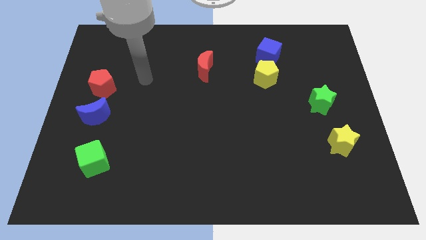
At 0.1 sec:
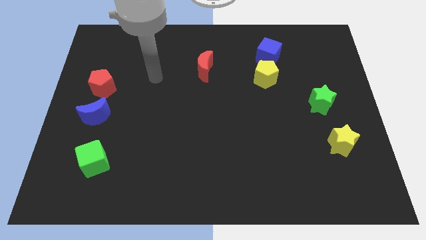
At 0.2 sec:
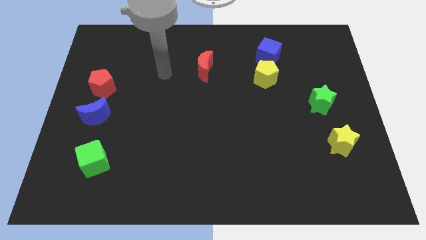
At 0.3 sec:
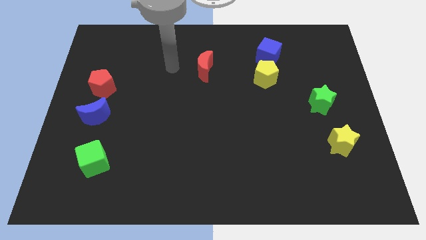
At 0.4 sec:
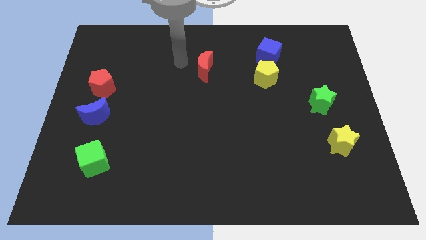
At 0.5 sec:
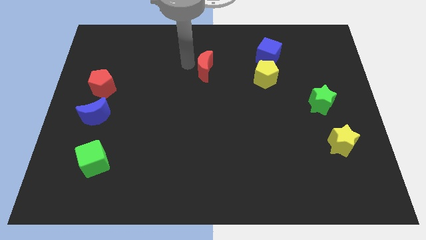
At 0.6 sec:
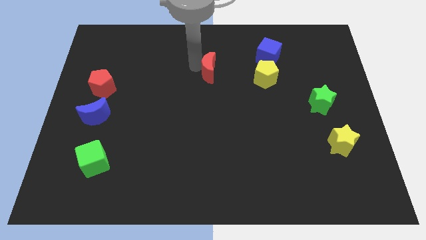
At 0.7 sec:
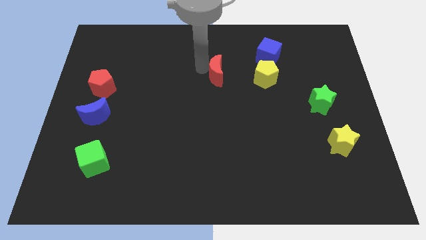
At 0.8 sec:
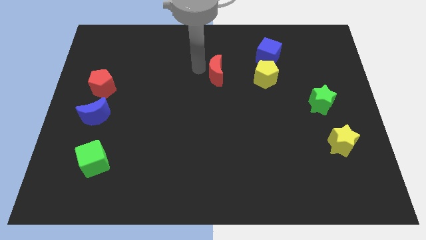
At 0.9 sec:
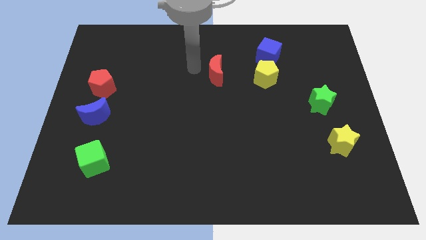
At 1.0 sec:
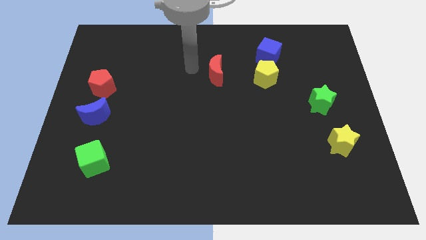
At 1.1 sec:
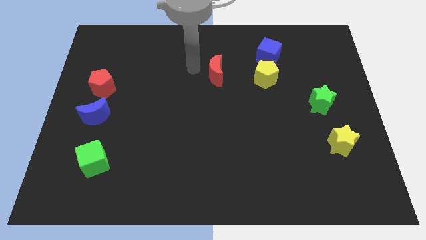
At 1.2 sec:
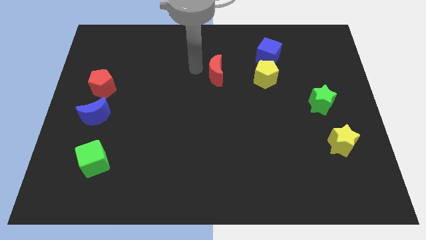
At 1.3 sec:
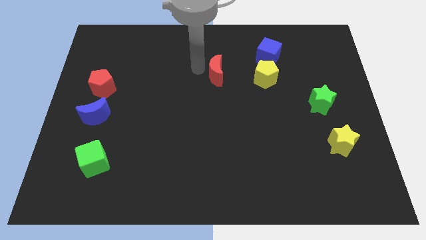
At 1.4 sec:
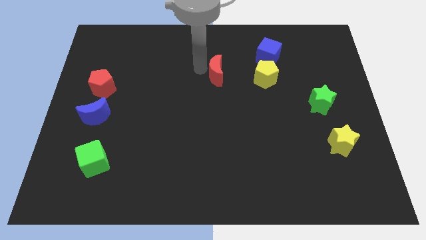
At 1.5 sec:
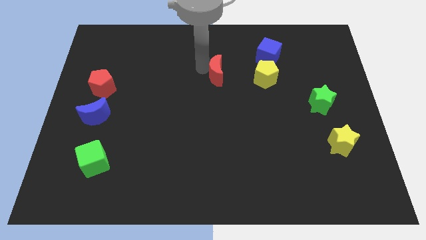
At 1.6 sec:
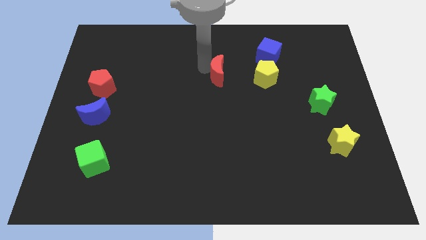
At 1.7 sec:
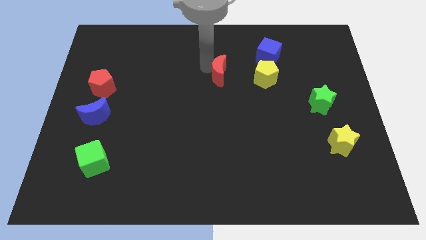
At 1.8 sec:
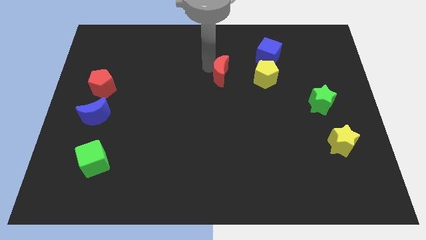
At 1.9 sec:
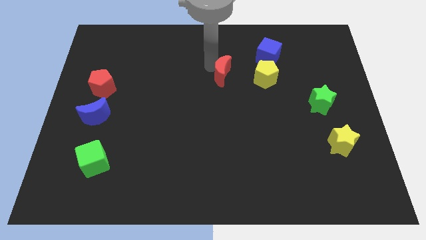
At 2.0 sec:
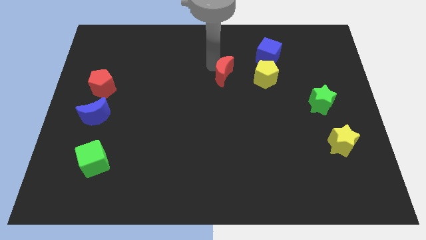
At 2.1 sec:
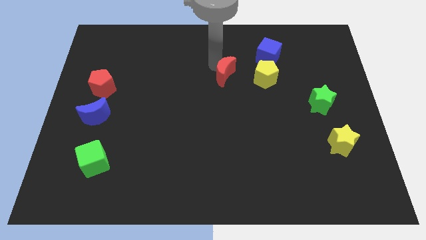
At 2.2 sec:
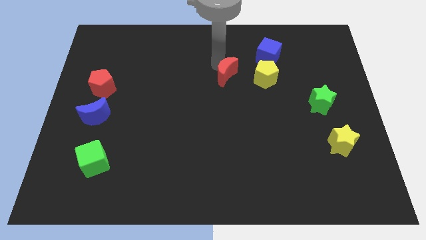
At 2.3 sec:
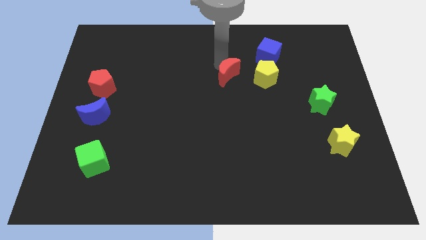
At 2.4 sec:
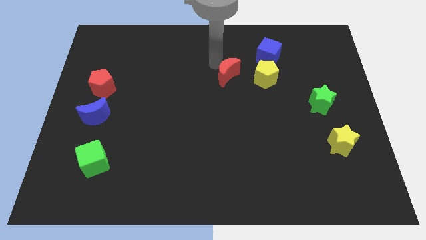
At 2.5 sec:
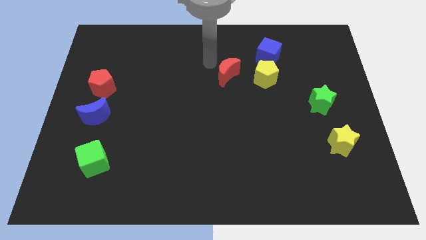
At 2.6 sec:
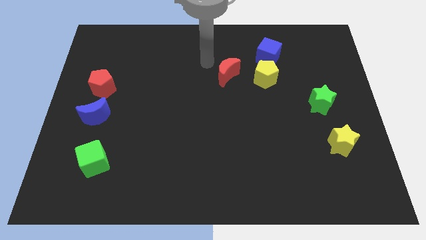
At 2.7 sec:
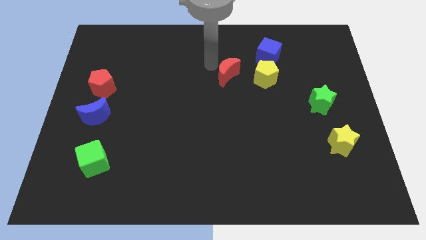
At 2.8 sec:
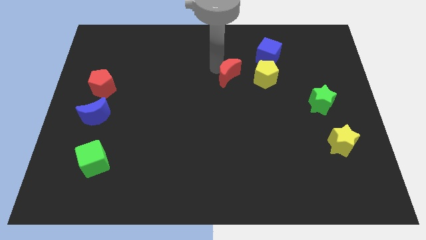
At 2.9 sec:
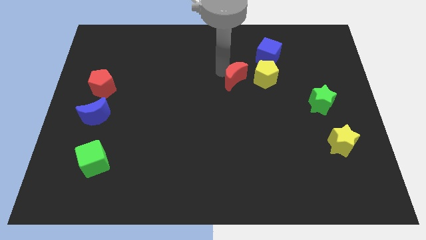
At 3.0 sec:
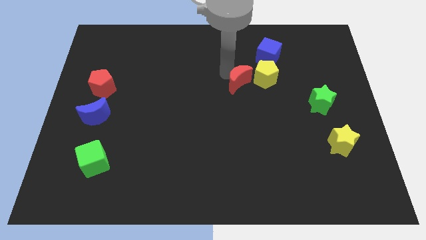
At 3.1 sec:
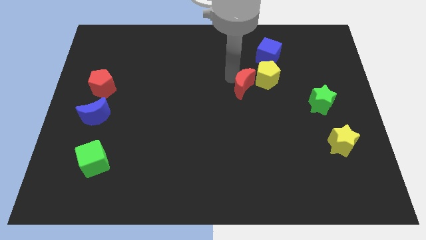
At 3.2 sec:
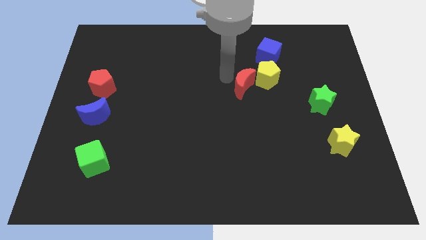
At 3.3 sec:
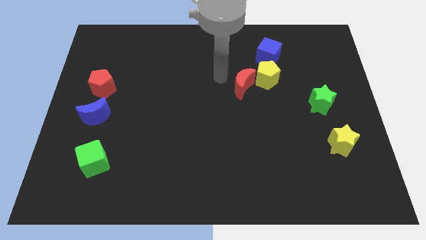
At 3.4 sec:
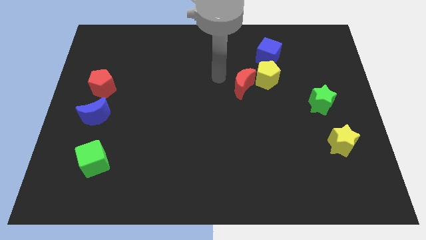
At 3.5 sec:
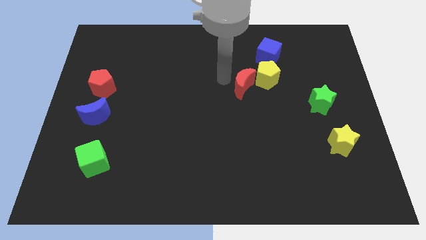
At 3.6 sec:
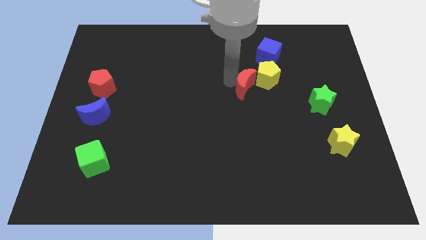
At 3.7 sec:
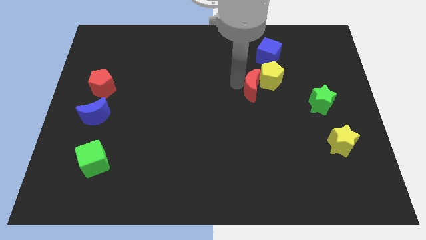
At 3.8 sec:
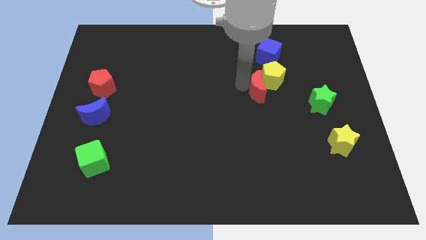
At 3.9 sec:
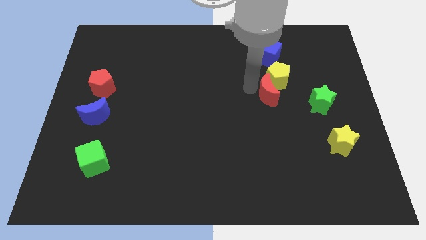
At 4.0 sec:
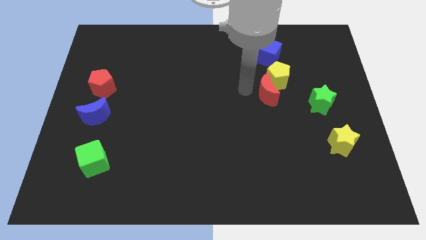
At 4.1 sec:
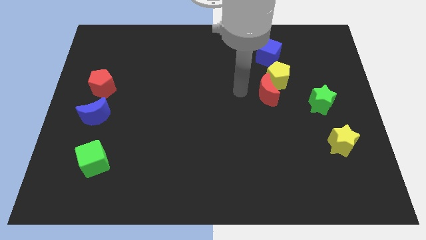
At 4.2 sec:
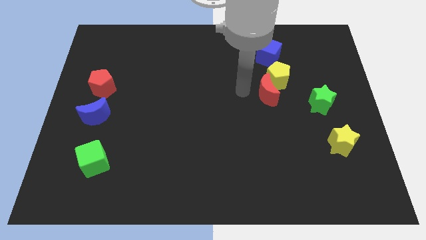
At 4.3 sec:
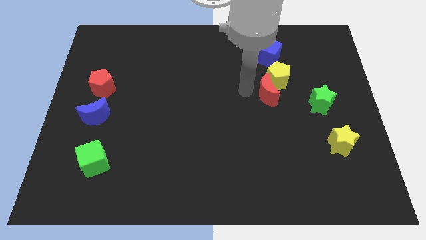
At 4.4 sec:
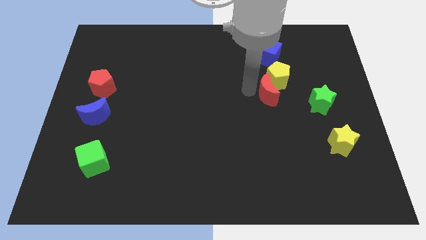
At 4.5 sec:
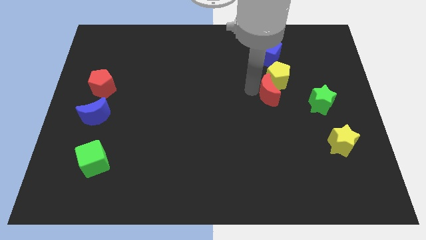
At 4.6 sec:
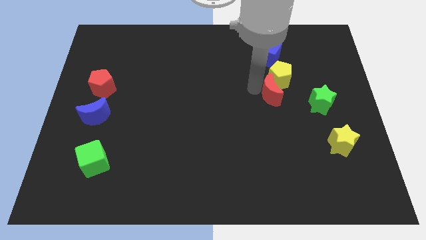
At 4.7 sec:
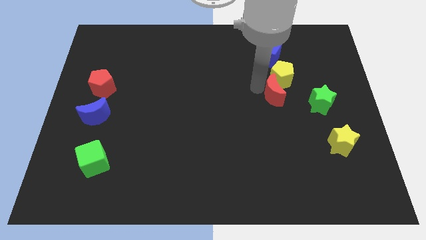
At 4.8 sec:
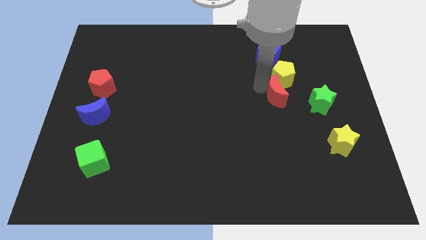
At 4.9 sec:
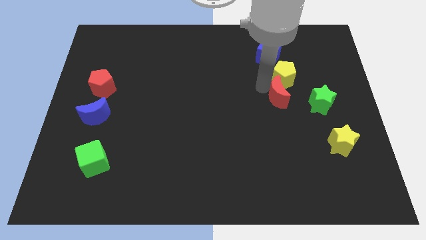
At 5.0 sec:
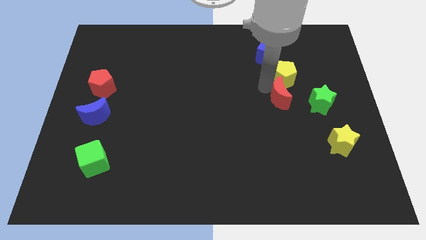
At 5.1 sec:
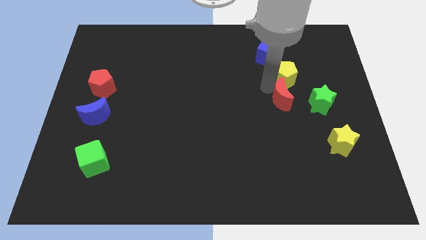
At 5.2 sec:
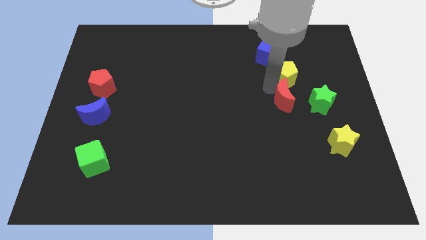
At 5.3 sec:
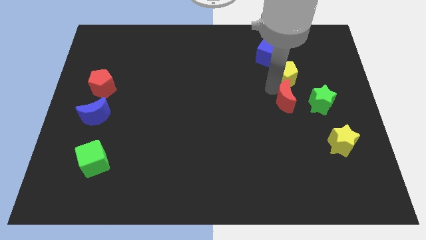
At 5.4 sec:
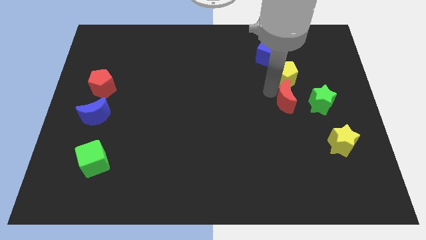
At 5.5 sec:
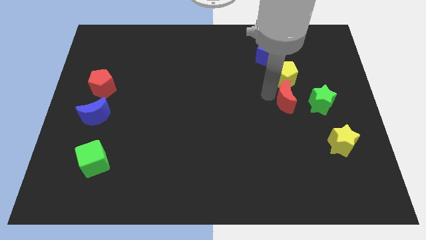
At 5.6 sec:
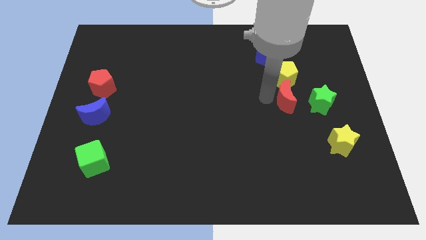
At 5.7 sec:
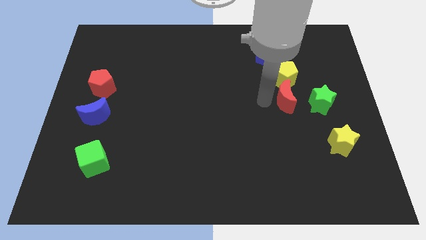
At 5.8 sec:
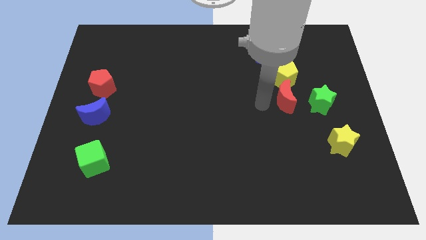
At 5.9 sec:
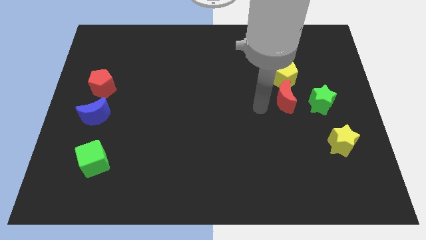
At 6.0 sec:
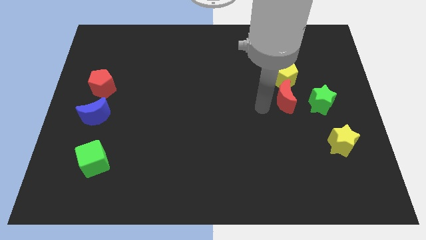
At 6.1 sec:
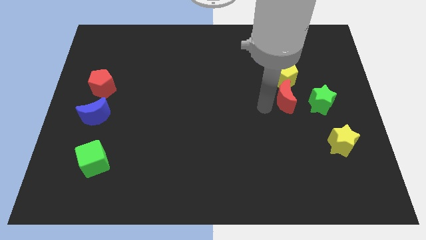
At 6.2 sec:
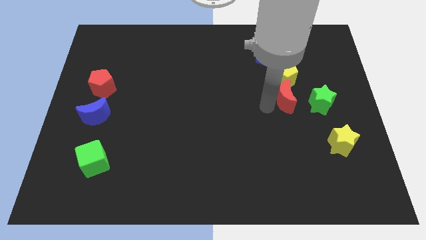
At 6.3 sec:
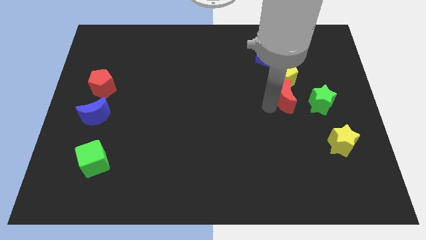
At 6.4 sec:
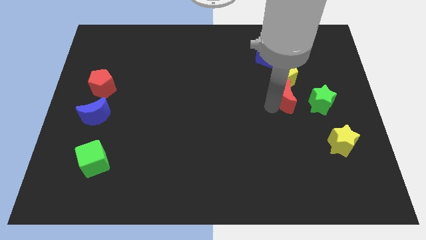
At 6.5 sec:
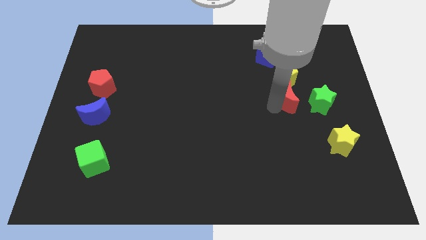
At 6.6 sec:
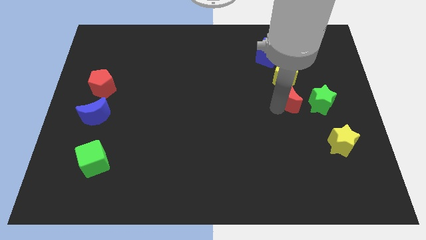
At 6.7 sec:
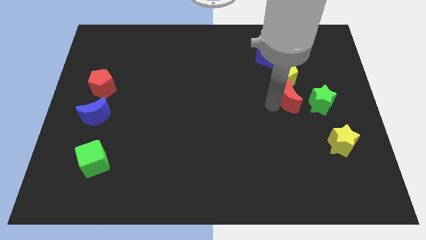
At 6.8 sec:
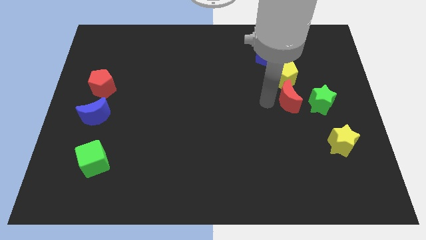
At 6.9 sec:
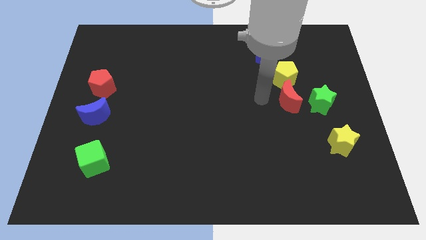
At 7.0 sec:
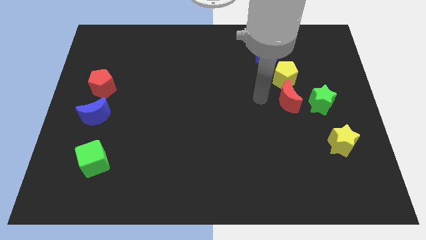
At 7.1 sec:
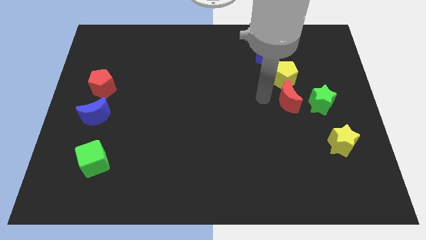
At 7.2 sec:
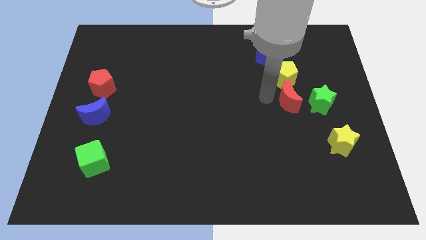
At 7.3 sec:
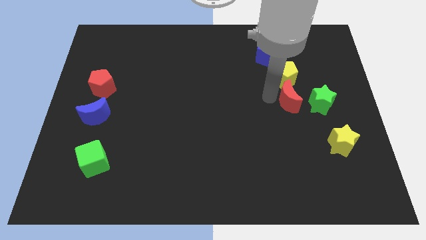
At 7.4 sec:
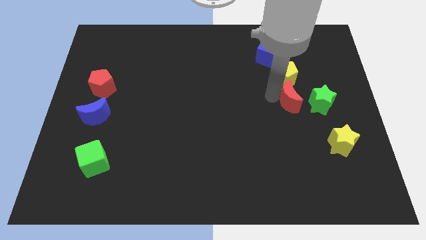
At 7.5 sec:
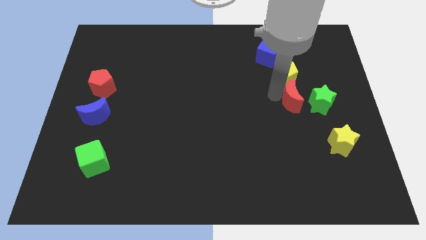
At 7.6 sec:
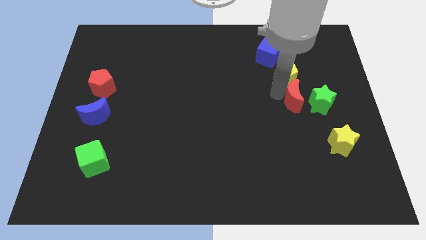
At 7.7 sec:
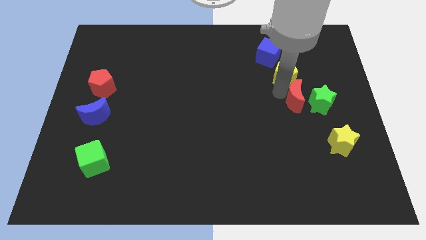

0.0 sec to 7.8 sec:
put the red moon towards the green star
